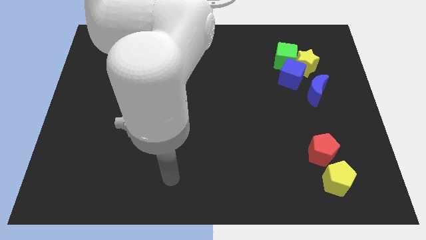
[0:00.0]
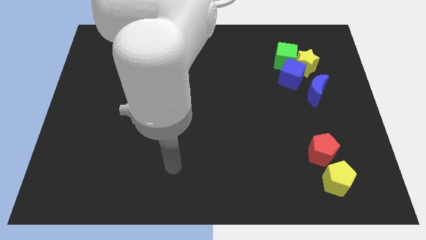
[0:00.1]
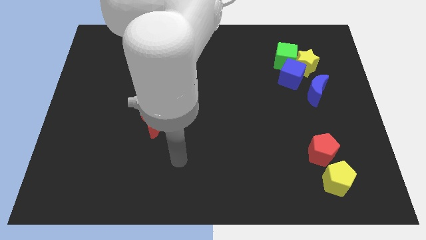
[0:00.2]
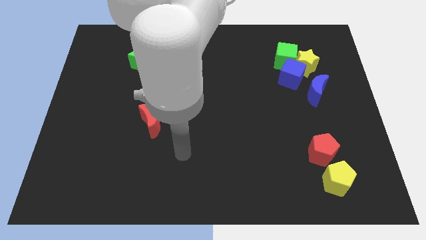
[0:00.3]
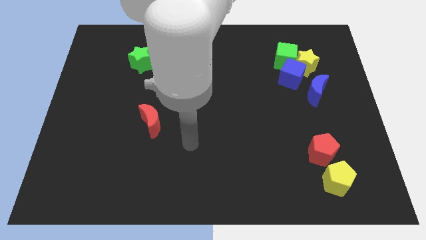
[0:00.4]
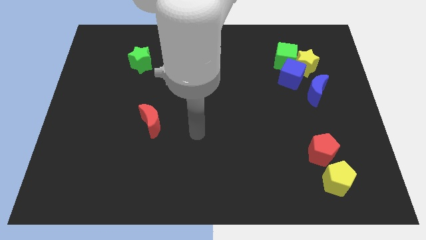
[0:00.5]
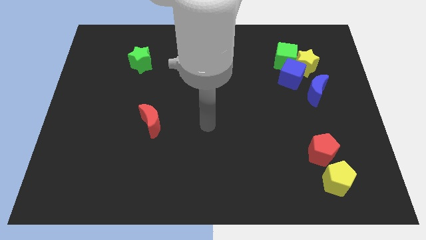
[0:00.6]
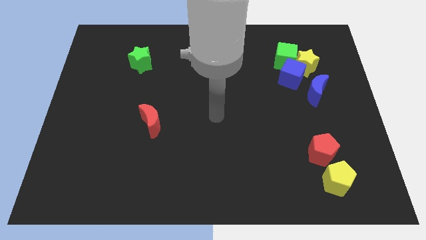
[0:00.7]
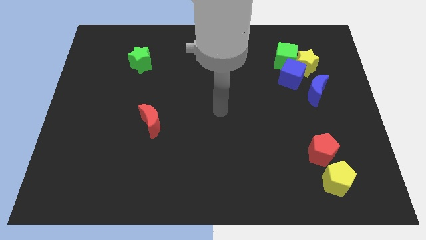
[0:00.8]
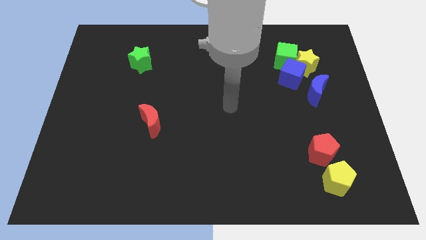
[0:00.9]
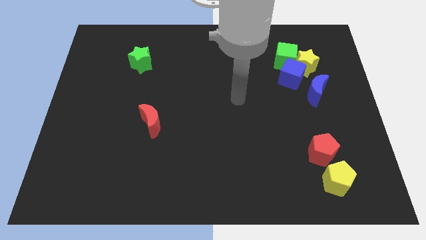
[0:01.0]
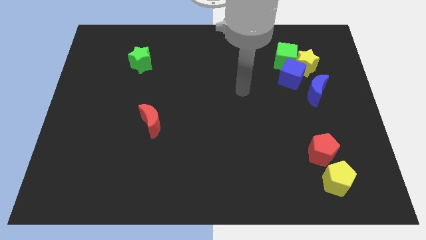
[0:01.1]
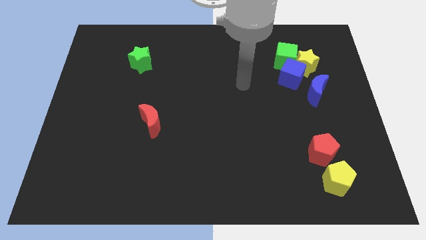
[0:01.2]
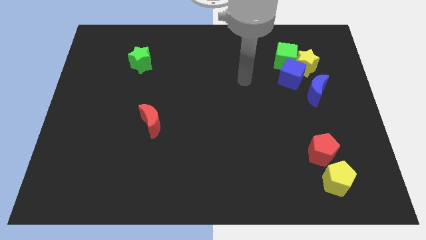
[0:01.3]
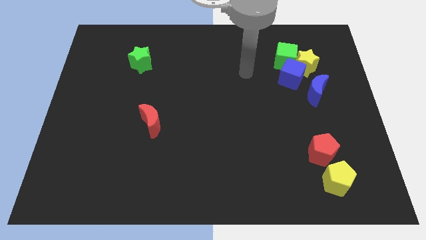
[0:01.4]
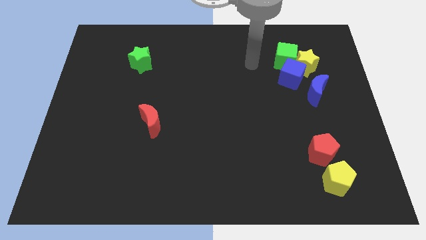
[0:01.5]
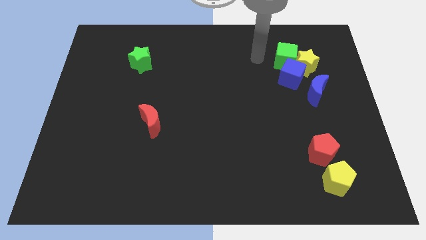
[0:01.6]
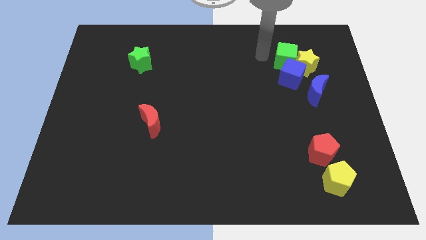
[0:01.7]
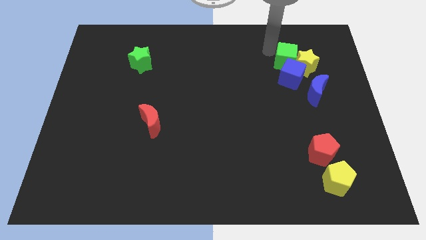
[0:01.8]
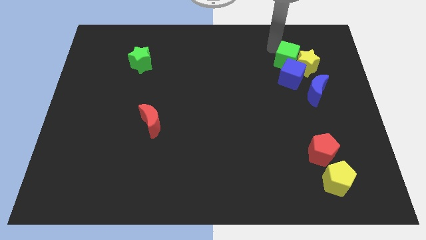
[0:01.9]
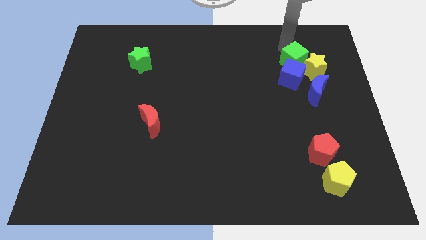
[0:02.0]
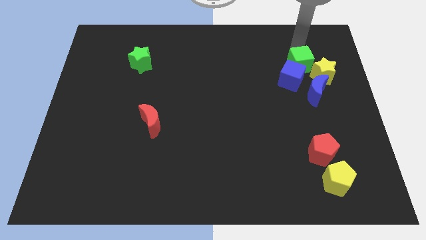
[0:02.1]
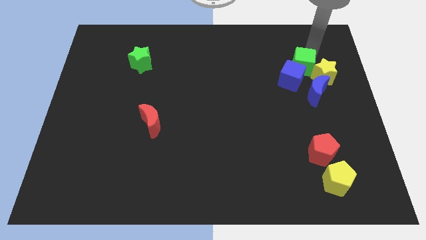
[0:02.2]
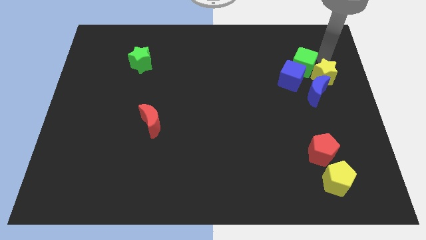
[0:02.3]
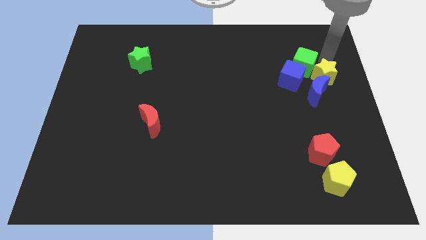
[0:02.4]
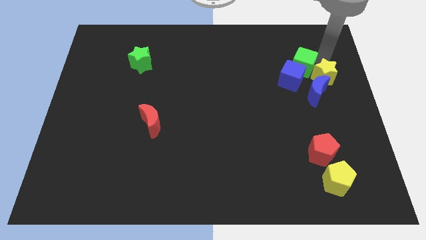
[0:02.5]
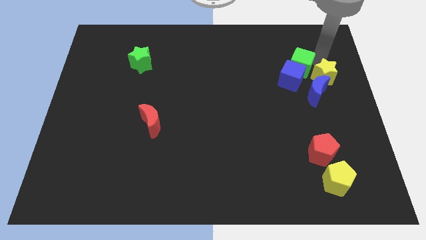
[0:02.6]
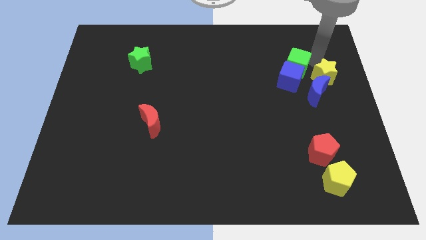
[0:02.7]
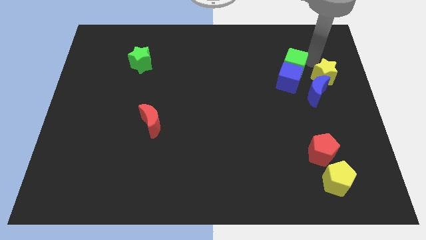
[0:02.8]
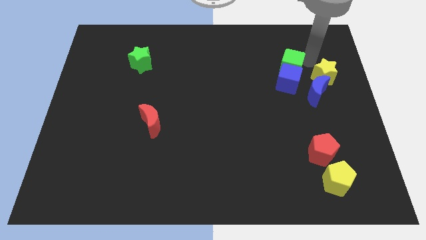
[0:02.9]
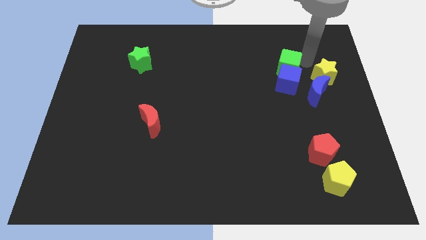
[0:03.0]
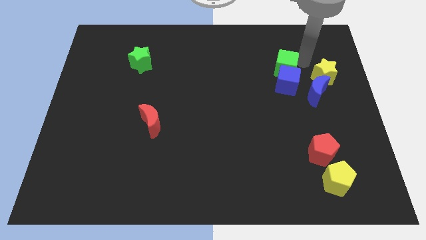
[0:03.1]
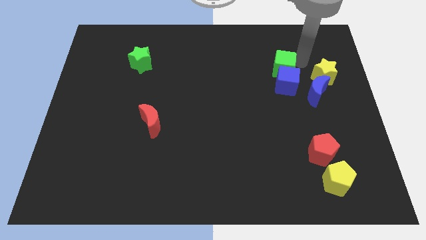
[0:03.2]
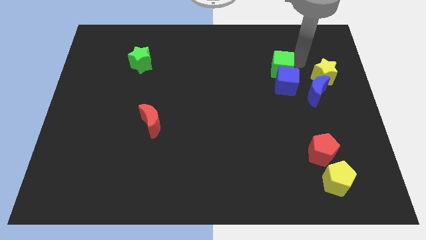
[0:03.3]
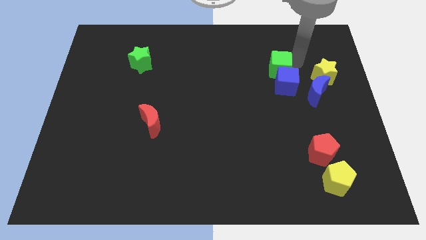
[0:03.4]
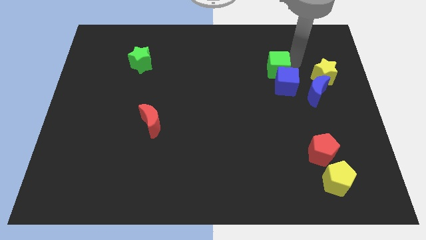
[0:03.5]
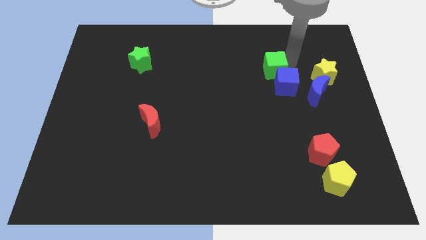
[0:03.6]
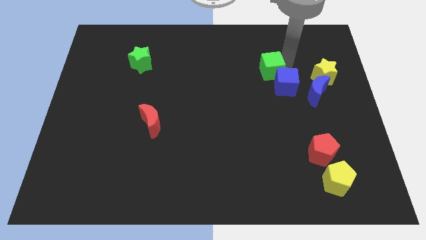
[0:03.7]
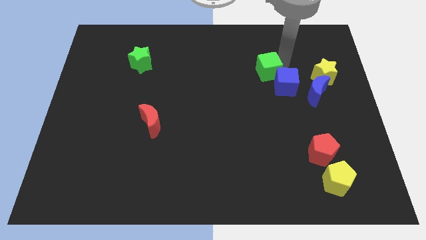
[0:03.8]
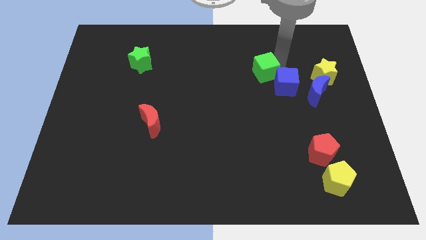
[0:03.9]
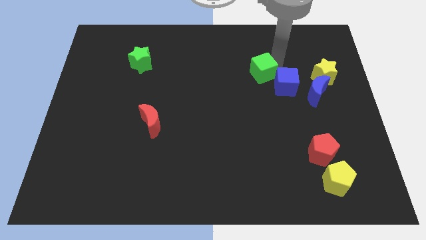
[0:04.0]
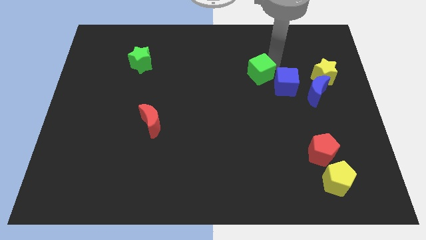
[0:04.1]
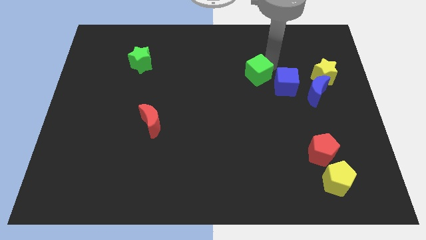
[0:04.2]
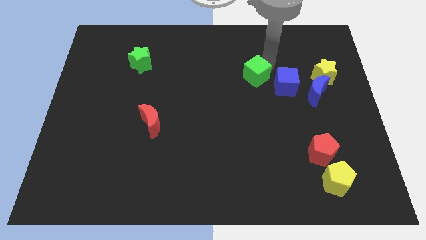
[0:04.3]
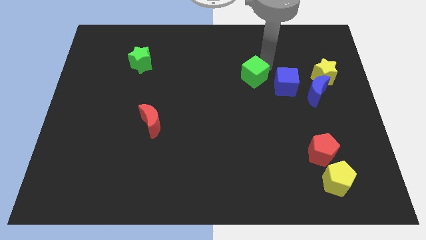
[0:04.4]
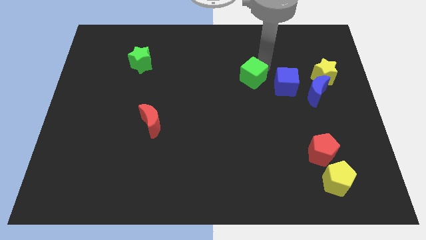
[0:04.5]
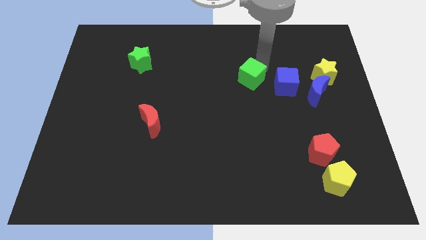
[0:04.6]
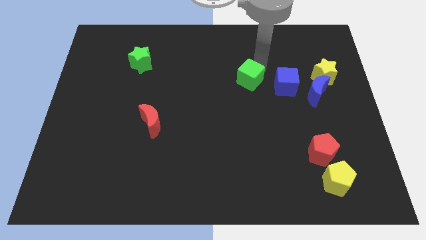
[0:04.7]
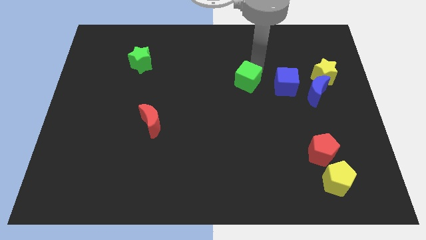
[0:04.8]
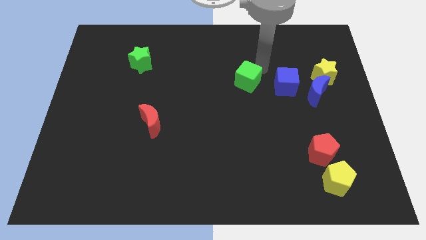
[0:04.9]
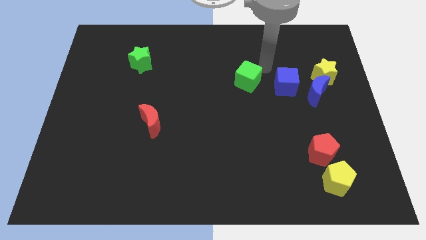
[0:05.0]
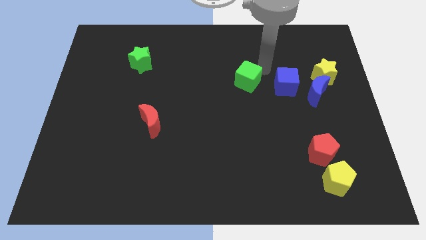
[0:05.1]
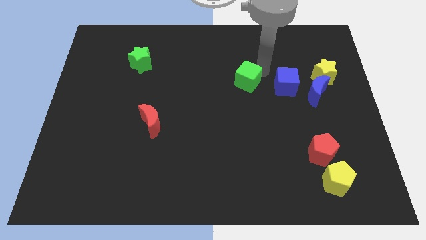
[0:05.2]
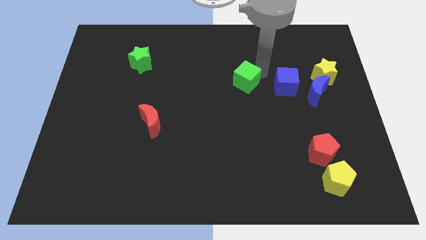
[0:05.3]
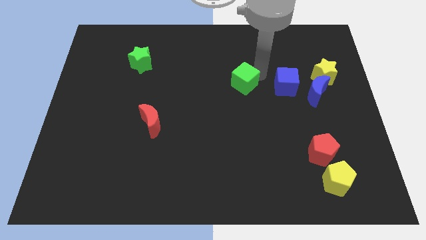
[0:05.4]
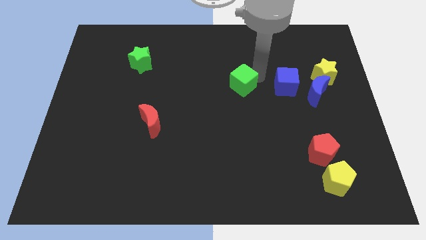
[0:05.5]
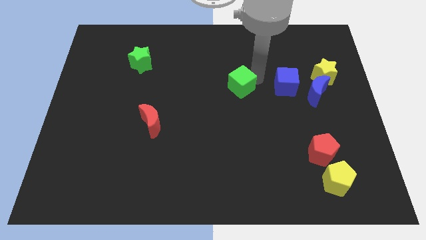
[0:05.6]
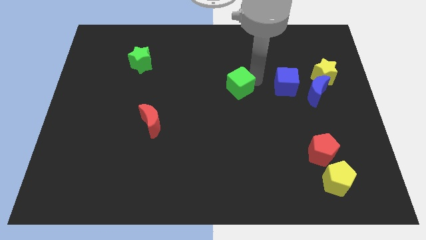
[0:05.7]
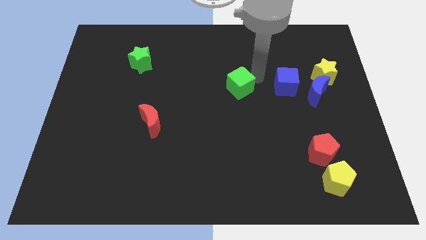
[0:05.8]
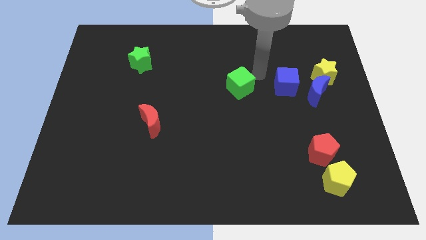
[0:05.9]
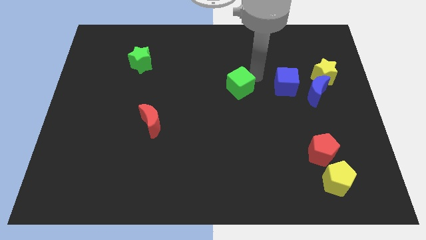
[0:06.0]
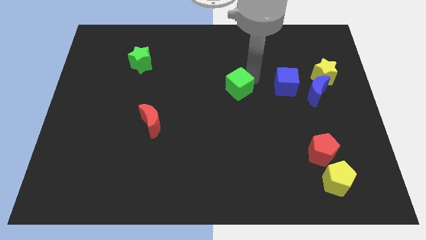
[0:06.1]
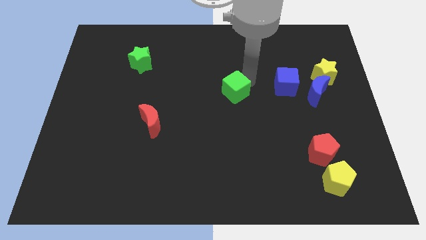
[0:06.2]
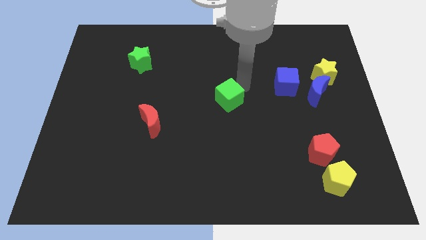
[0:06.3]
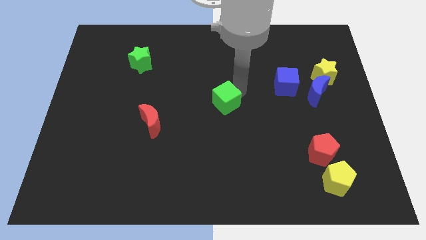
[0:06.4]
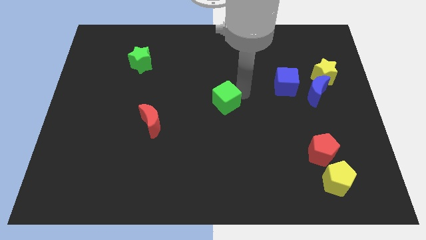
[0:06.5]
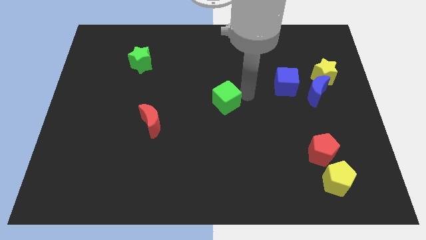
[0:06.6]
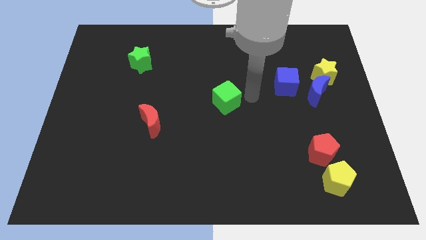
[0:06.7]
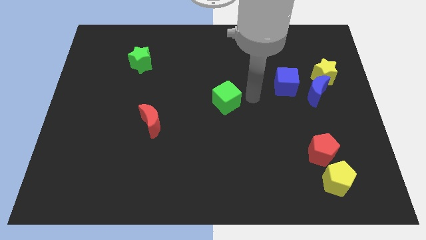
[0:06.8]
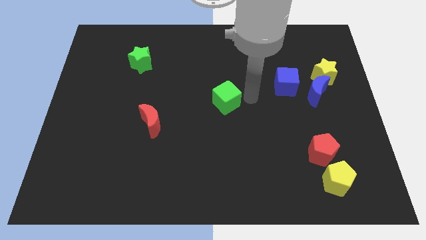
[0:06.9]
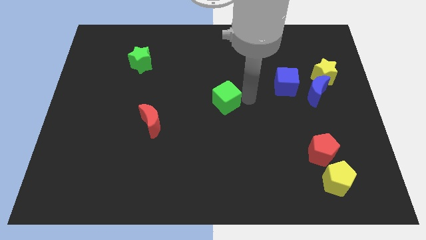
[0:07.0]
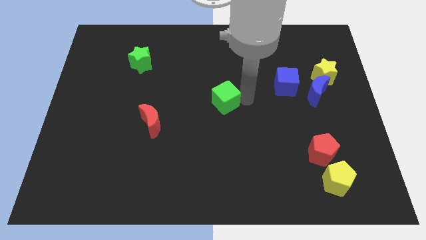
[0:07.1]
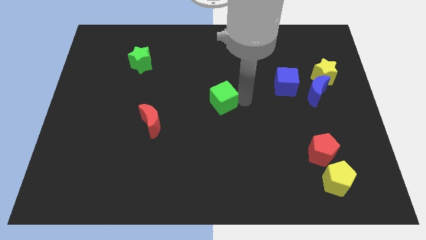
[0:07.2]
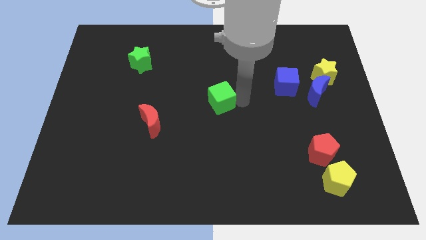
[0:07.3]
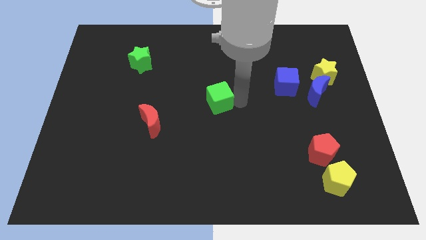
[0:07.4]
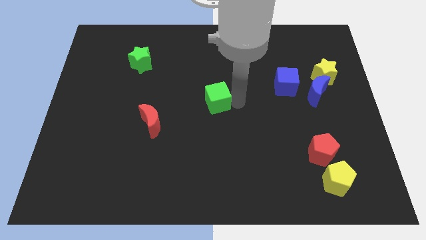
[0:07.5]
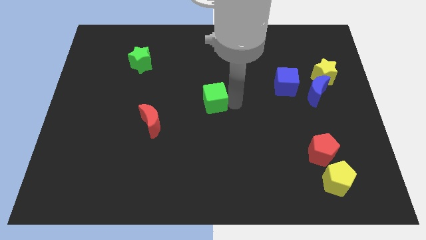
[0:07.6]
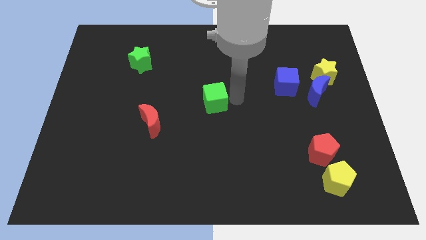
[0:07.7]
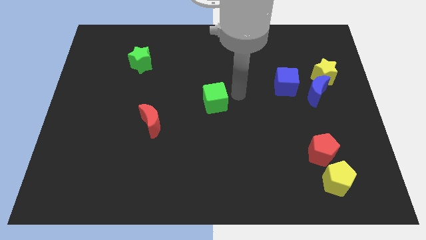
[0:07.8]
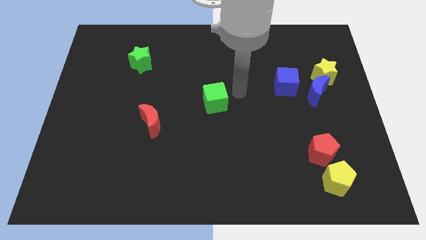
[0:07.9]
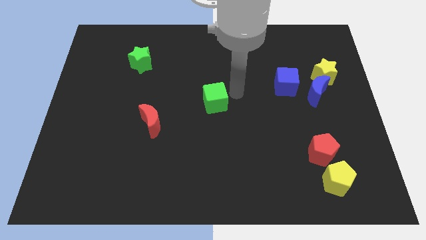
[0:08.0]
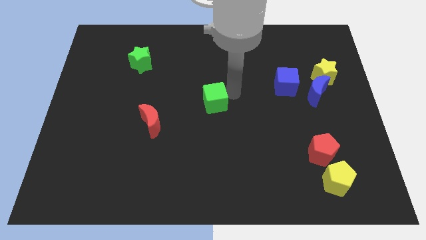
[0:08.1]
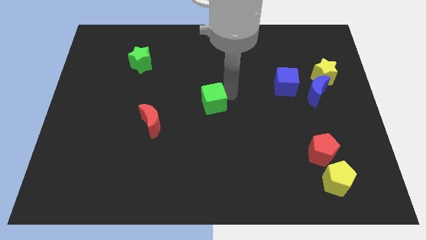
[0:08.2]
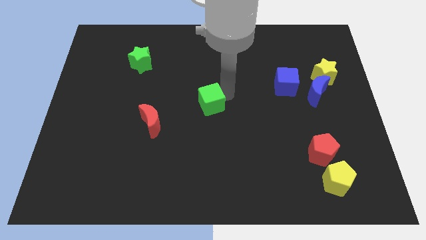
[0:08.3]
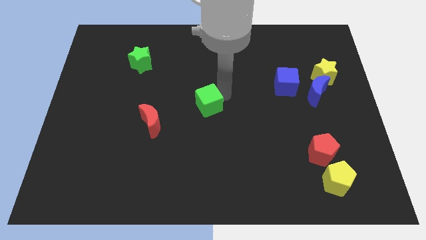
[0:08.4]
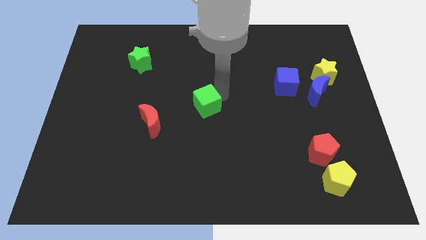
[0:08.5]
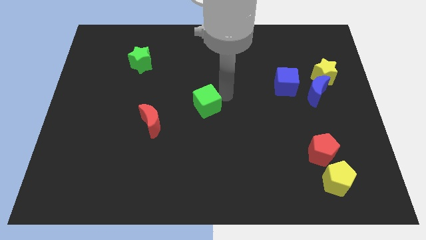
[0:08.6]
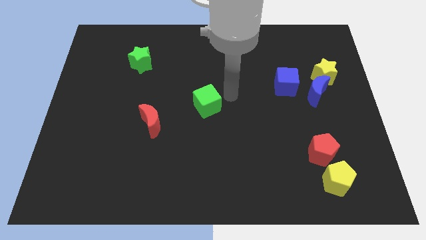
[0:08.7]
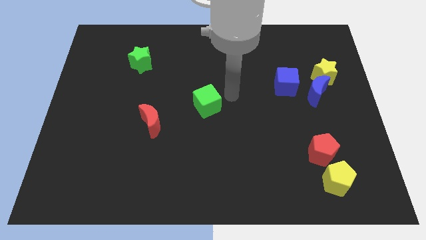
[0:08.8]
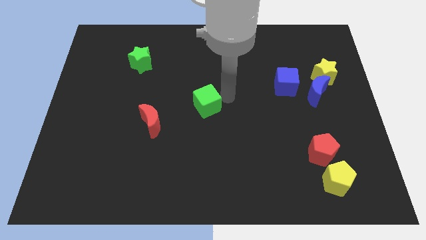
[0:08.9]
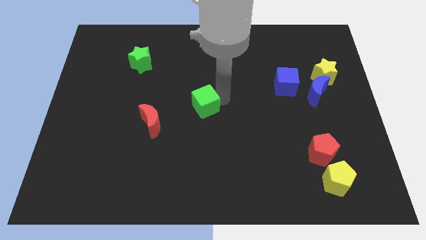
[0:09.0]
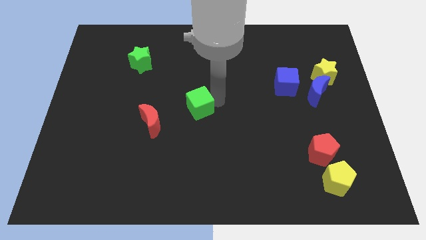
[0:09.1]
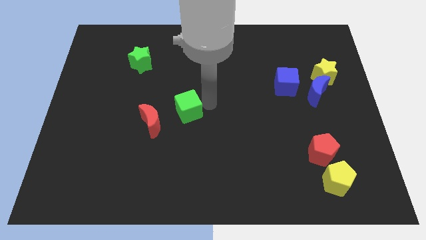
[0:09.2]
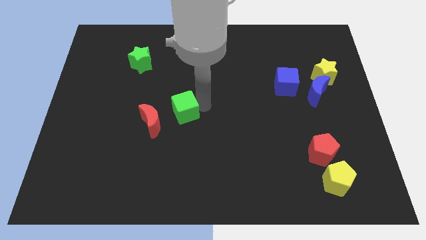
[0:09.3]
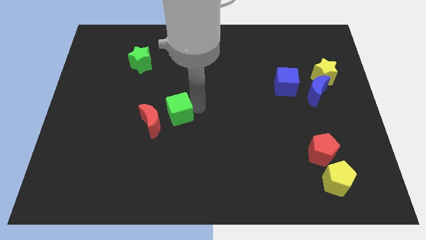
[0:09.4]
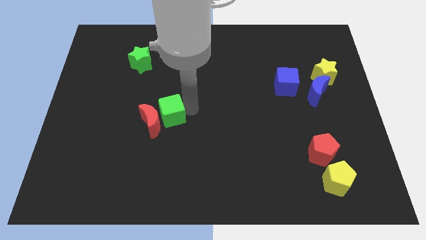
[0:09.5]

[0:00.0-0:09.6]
push the green cube to the red moon
